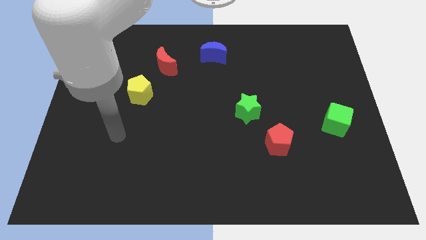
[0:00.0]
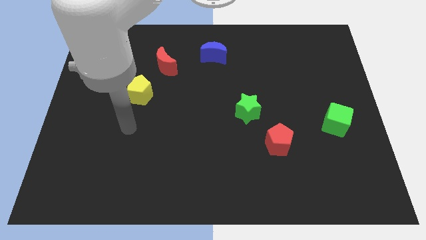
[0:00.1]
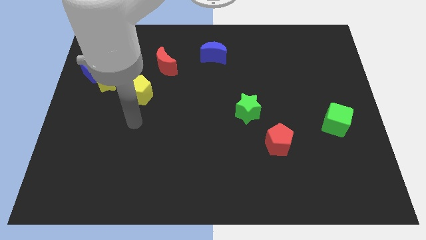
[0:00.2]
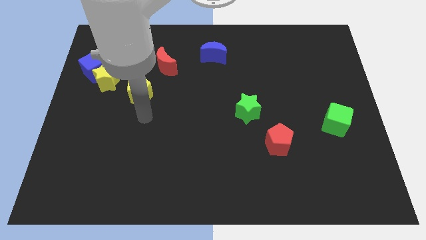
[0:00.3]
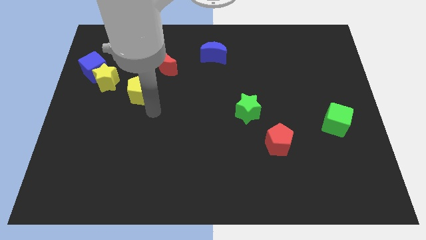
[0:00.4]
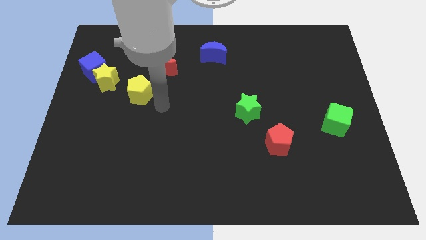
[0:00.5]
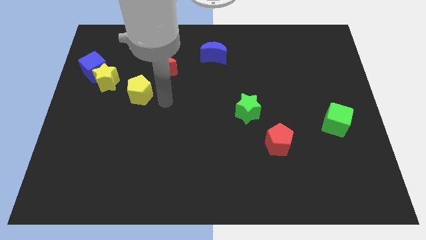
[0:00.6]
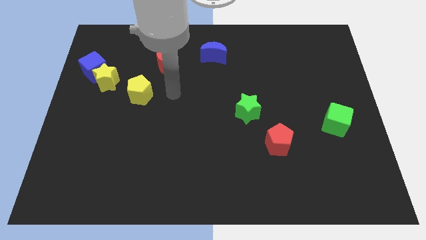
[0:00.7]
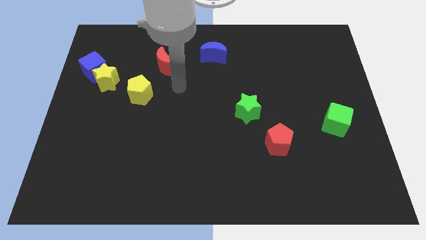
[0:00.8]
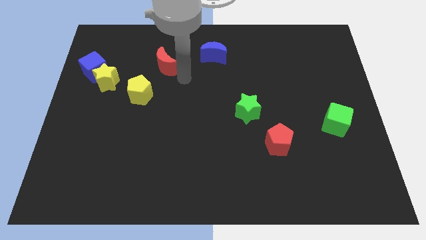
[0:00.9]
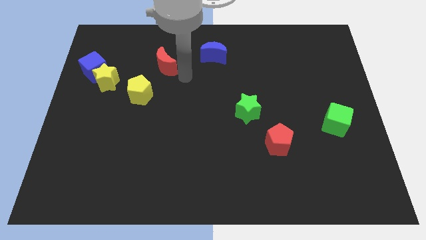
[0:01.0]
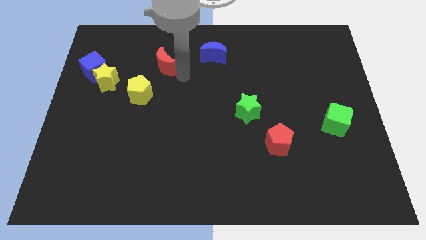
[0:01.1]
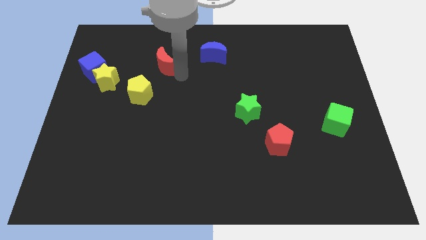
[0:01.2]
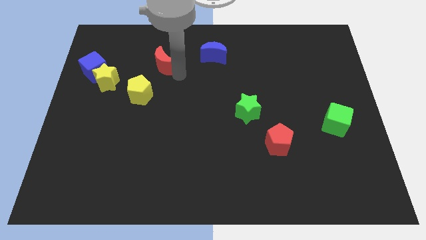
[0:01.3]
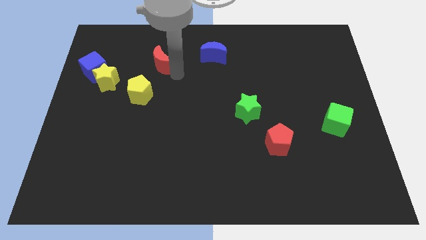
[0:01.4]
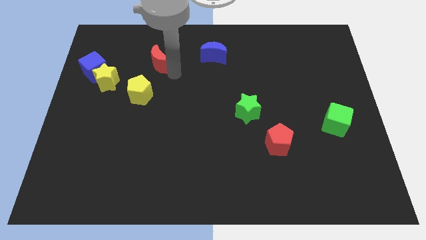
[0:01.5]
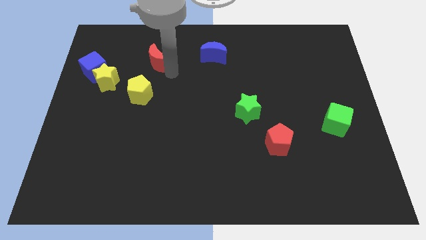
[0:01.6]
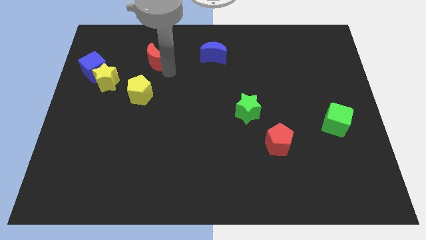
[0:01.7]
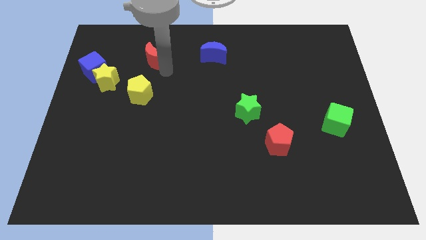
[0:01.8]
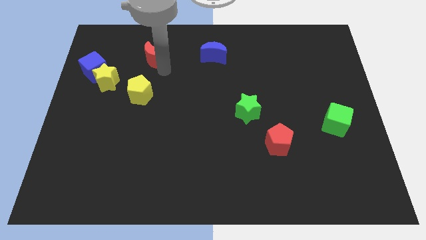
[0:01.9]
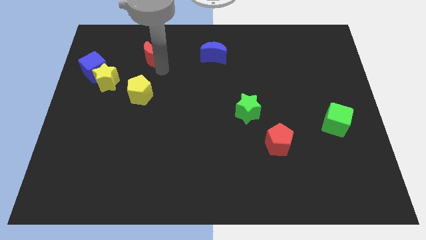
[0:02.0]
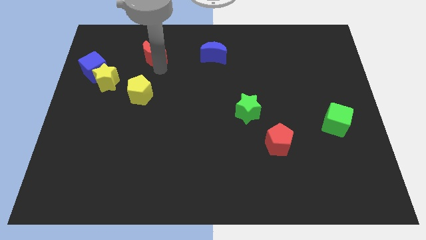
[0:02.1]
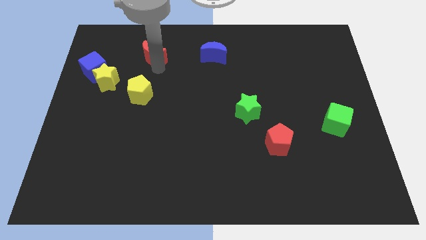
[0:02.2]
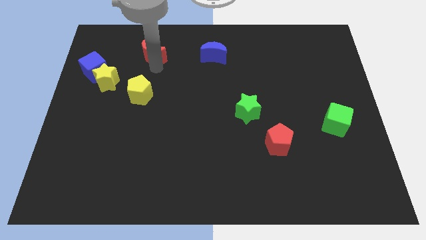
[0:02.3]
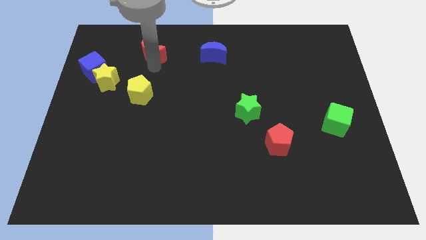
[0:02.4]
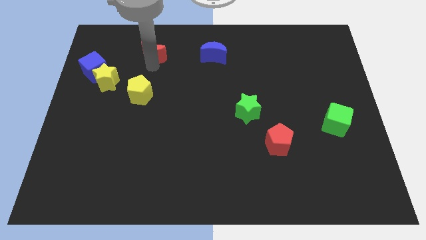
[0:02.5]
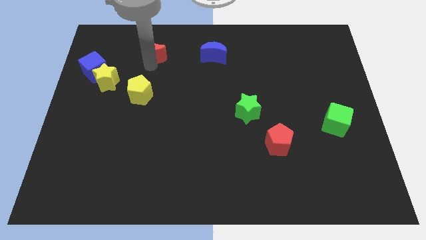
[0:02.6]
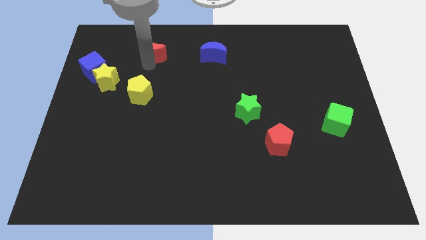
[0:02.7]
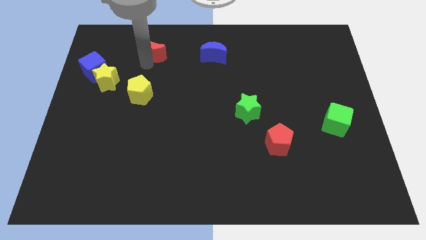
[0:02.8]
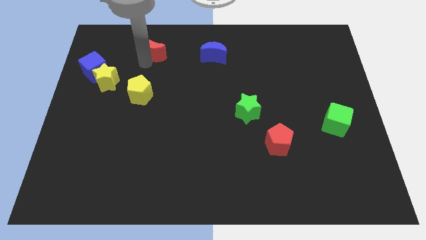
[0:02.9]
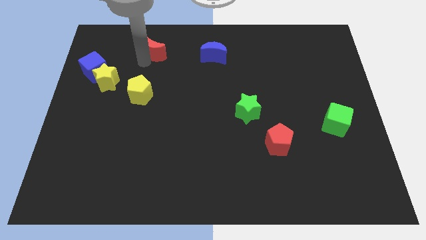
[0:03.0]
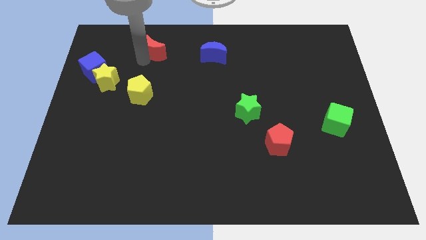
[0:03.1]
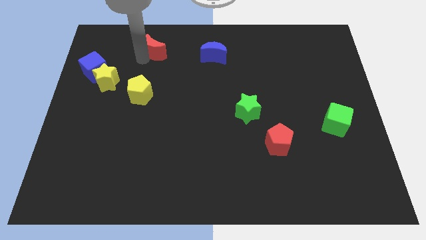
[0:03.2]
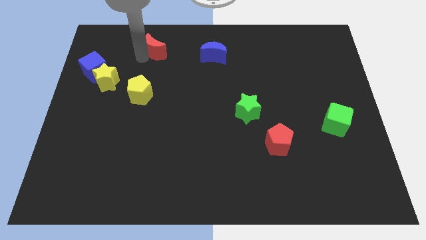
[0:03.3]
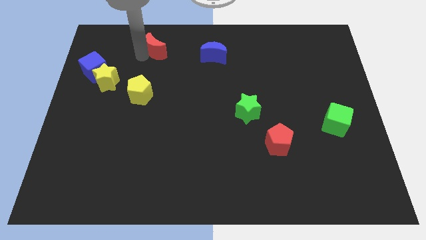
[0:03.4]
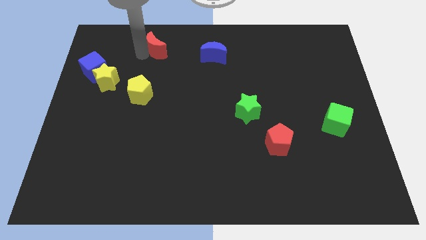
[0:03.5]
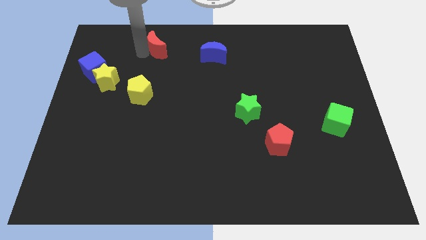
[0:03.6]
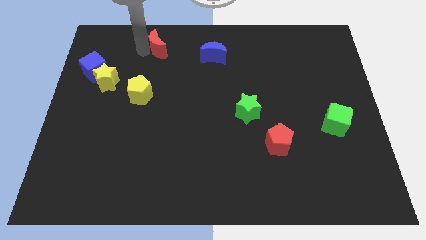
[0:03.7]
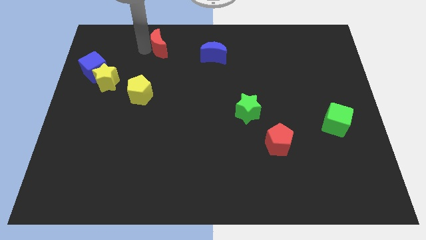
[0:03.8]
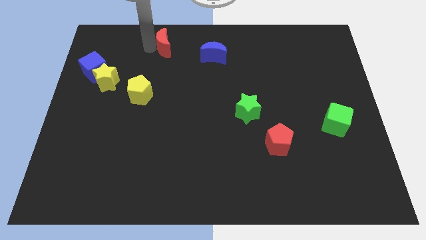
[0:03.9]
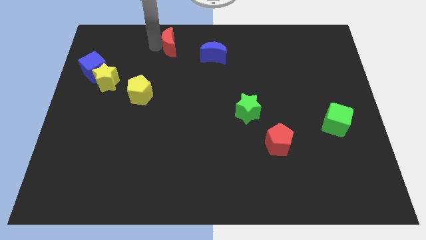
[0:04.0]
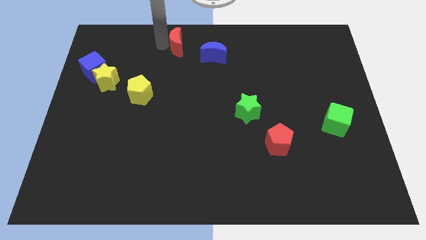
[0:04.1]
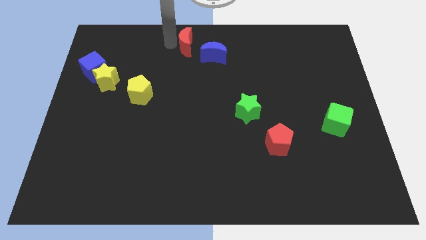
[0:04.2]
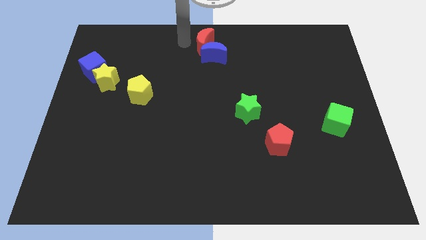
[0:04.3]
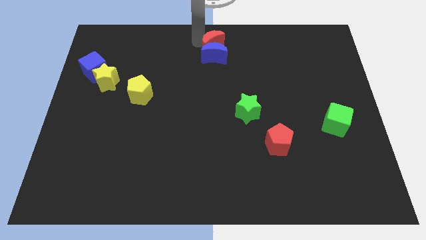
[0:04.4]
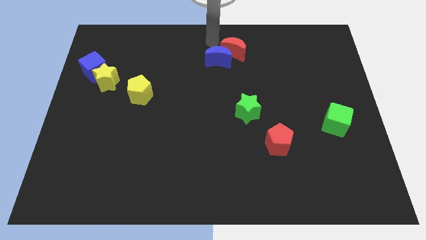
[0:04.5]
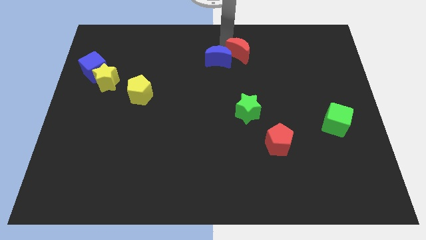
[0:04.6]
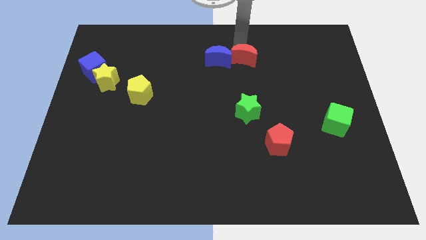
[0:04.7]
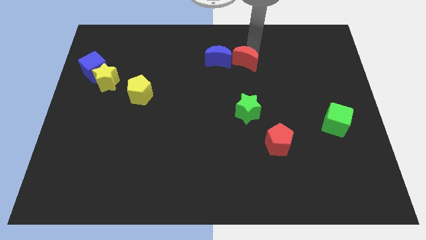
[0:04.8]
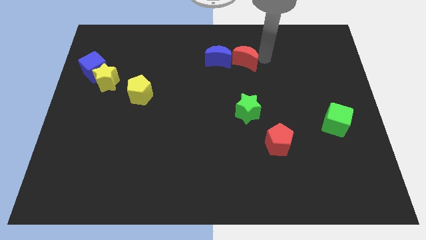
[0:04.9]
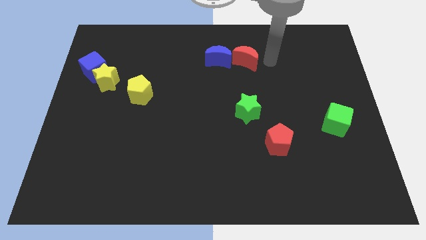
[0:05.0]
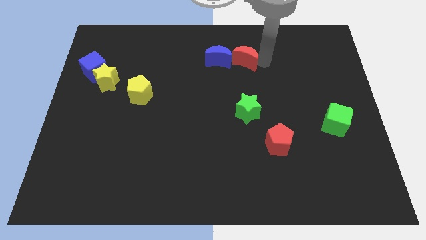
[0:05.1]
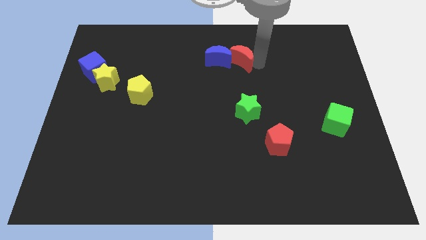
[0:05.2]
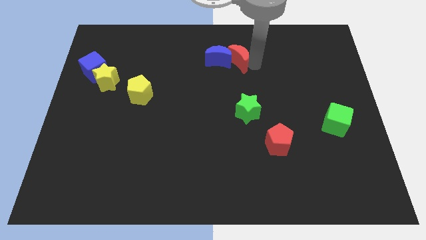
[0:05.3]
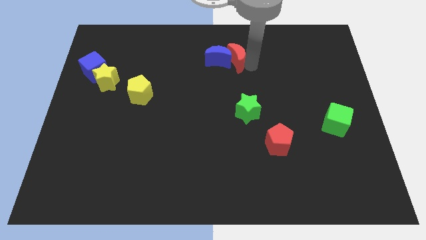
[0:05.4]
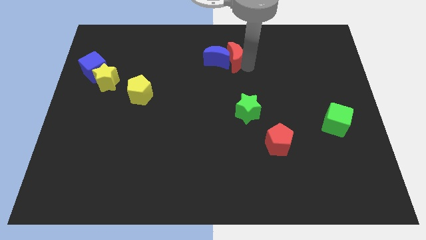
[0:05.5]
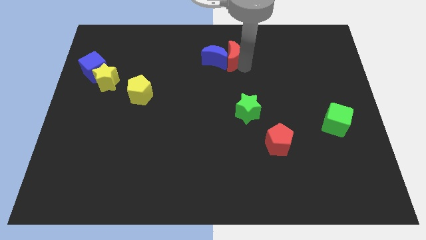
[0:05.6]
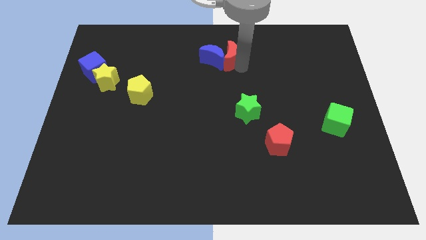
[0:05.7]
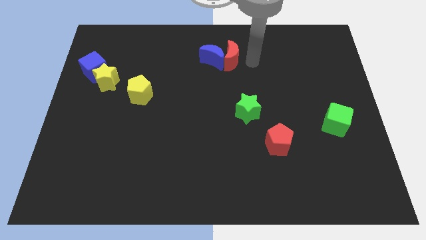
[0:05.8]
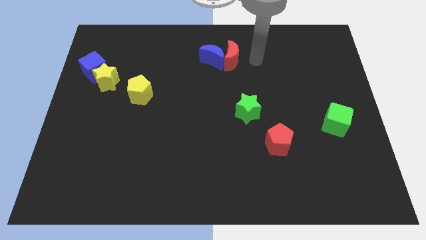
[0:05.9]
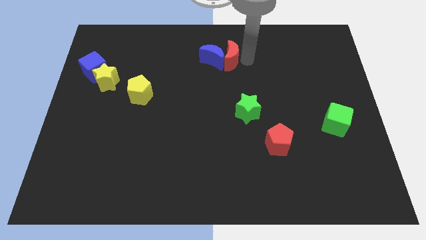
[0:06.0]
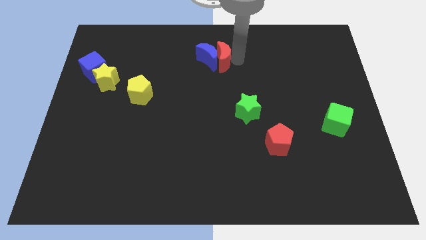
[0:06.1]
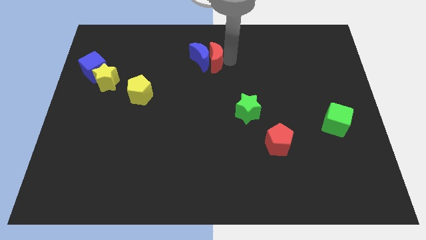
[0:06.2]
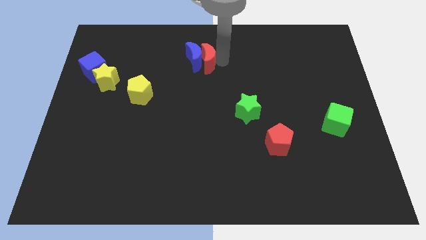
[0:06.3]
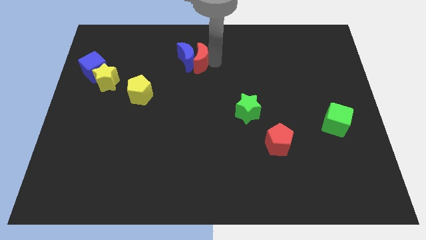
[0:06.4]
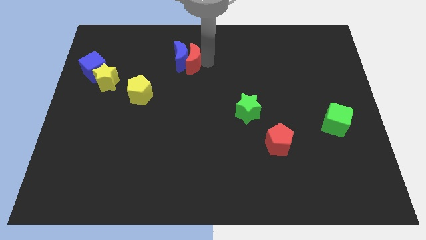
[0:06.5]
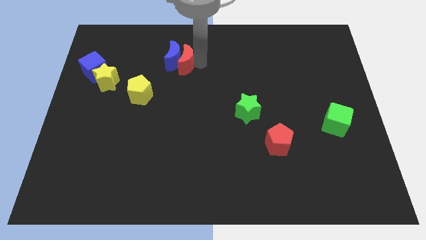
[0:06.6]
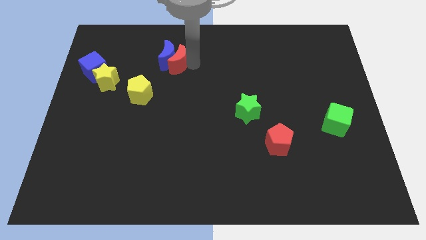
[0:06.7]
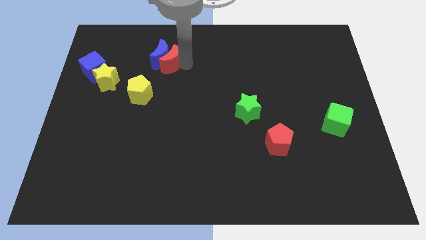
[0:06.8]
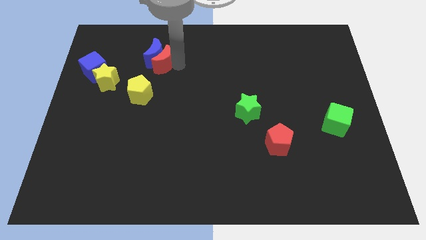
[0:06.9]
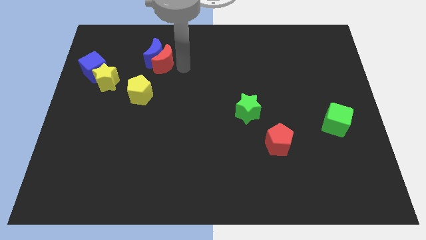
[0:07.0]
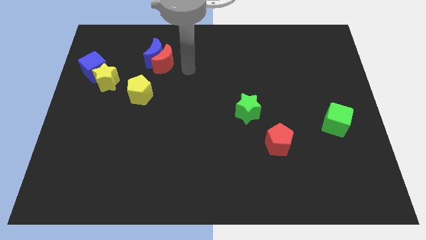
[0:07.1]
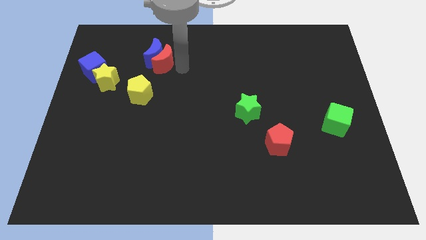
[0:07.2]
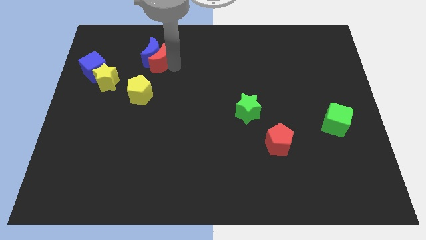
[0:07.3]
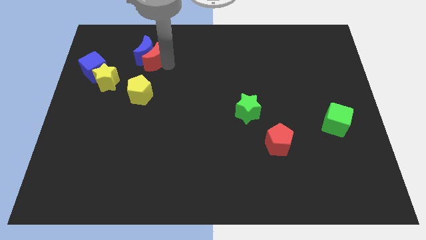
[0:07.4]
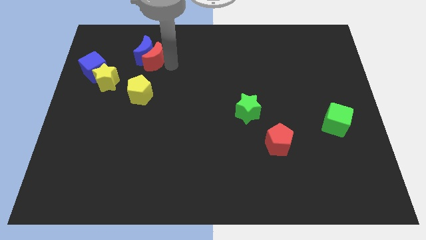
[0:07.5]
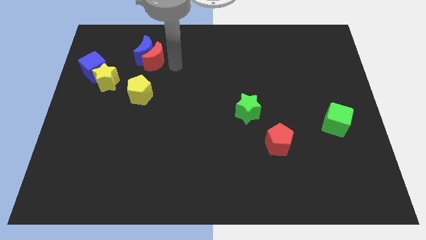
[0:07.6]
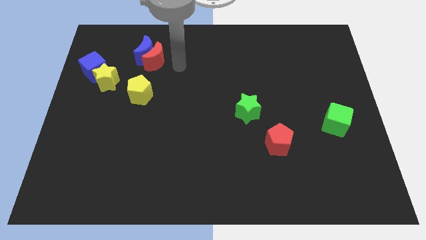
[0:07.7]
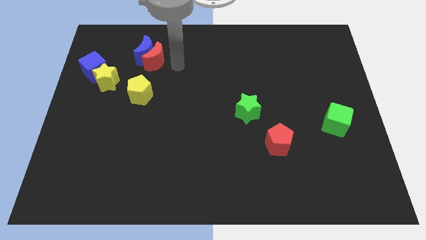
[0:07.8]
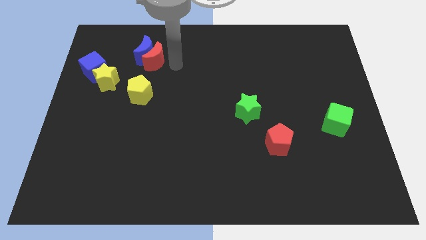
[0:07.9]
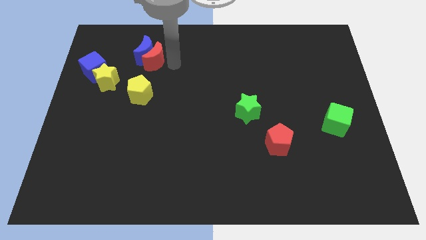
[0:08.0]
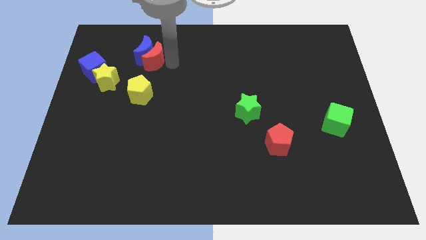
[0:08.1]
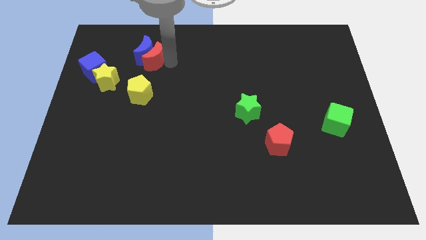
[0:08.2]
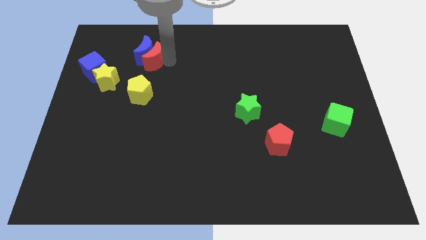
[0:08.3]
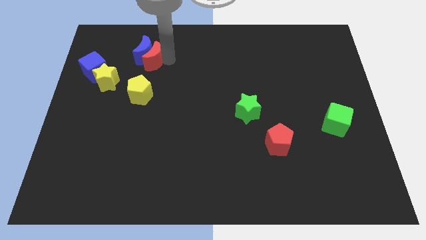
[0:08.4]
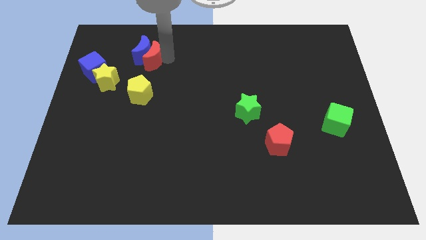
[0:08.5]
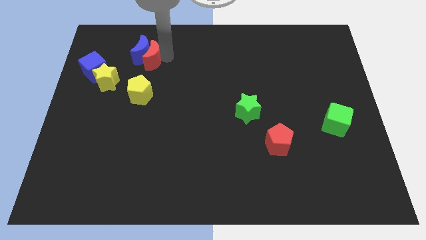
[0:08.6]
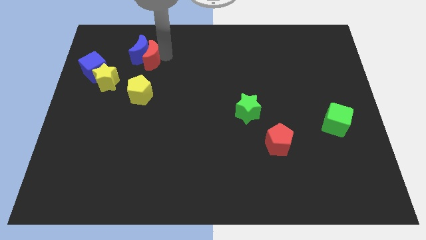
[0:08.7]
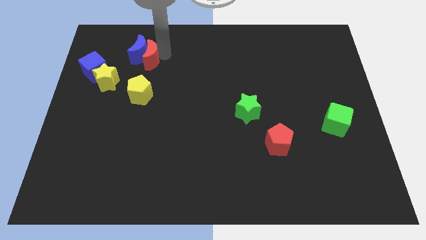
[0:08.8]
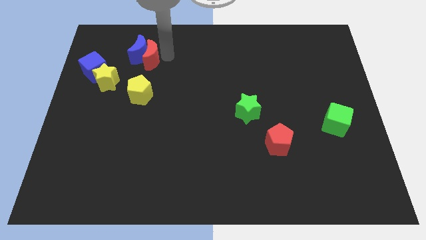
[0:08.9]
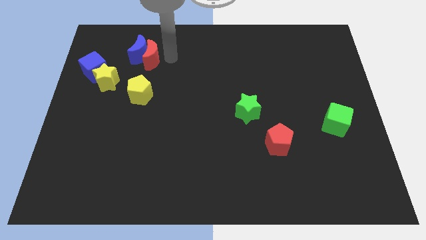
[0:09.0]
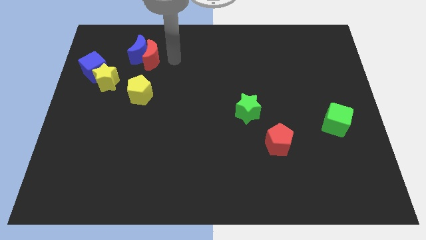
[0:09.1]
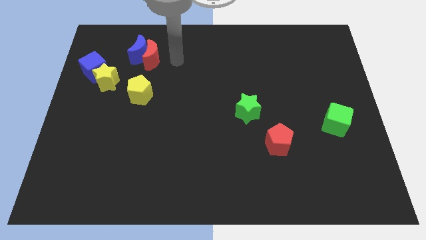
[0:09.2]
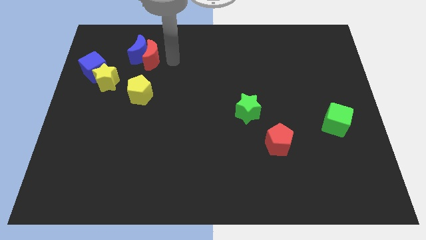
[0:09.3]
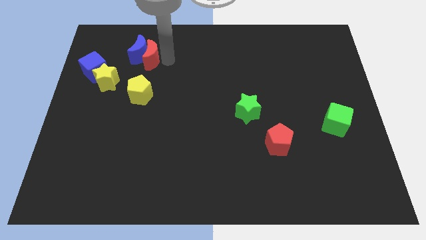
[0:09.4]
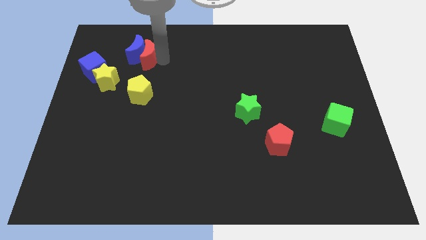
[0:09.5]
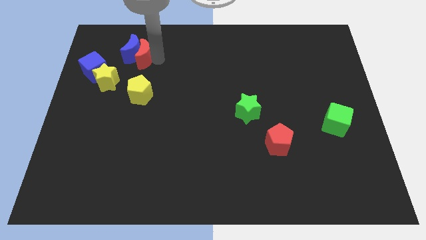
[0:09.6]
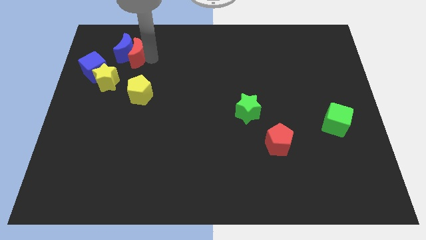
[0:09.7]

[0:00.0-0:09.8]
slide the red moon to the top right of the blue cube
